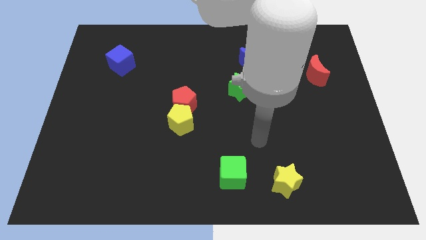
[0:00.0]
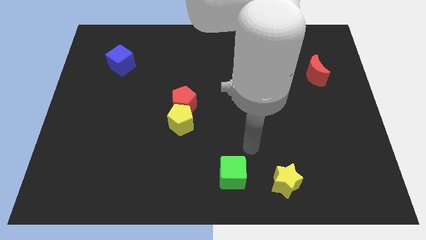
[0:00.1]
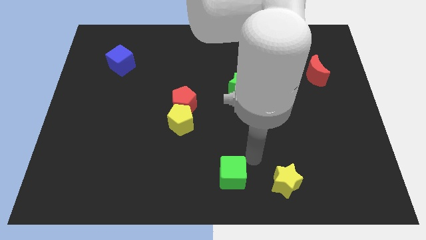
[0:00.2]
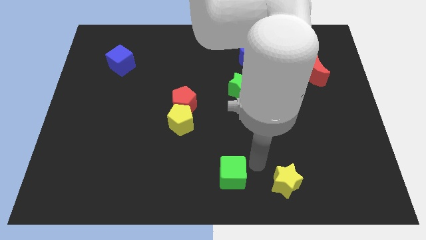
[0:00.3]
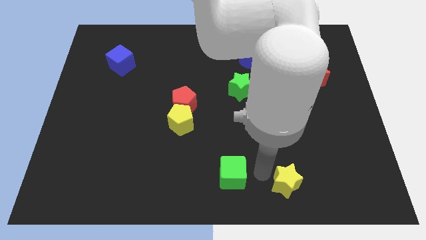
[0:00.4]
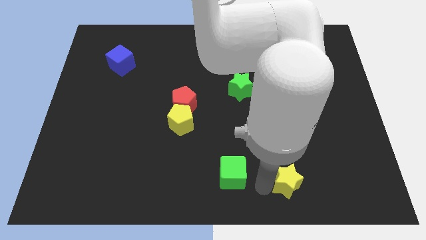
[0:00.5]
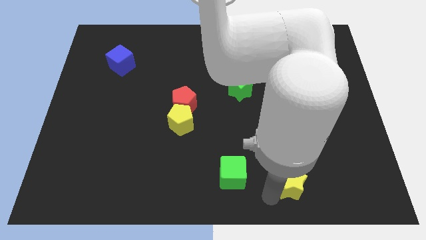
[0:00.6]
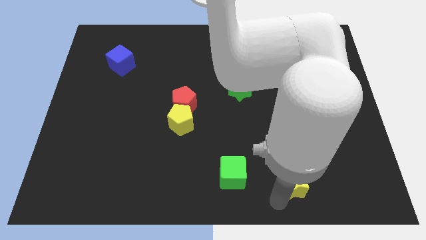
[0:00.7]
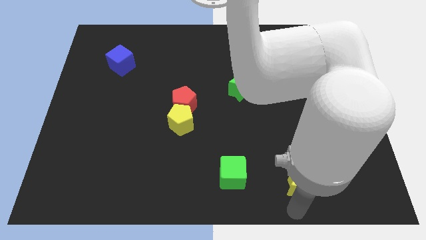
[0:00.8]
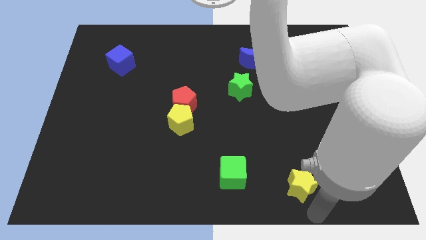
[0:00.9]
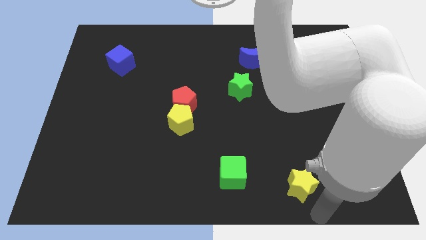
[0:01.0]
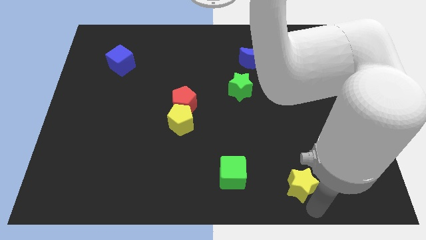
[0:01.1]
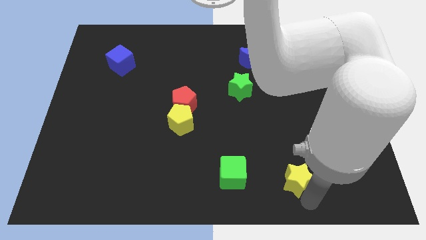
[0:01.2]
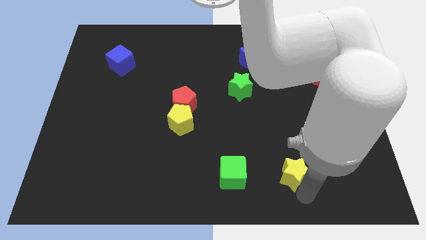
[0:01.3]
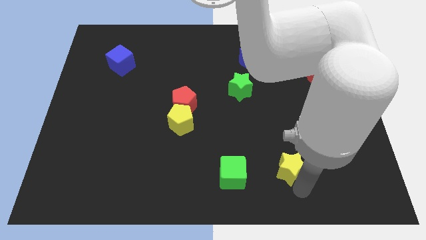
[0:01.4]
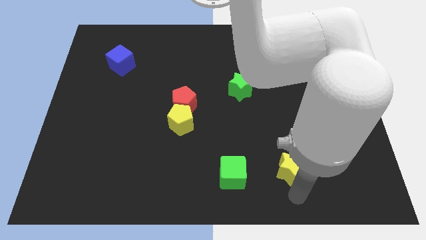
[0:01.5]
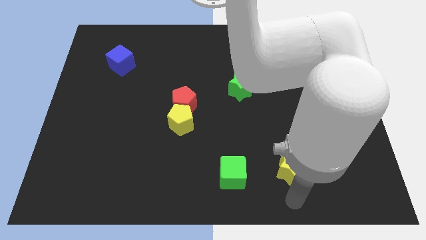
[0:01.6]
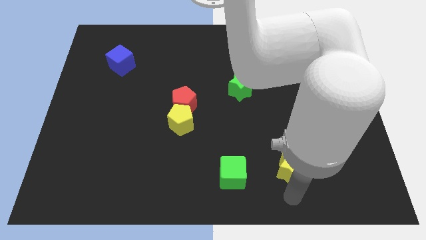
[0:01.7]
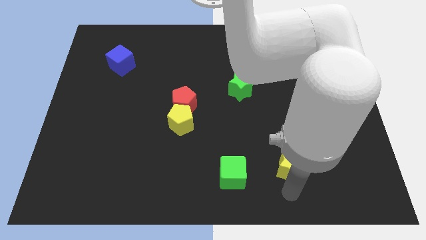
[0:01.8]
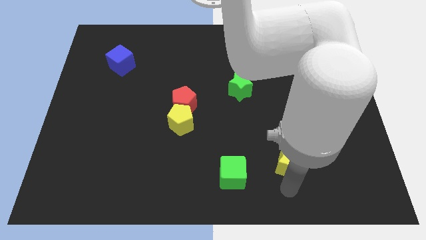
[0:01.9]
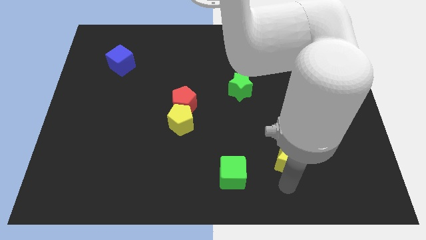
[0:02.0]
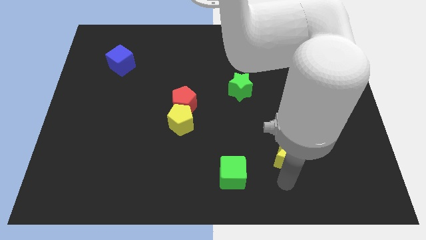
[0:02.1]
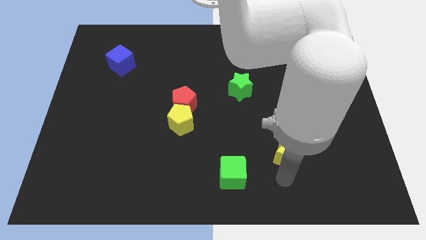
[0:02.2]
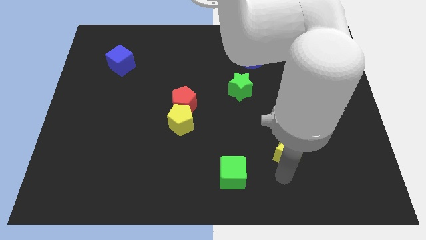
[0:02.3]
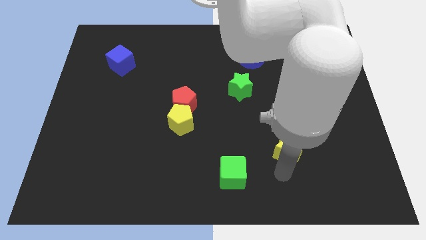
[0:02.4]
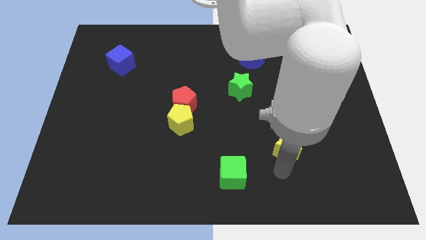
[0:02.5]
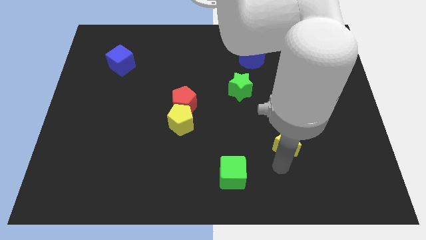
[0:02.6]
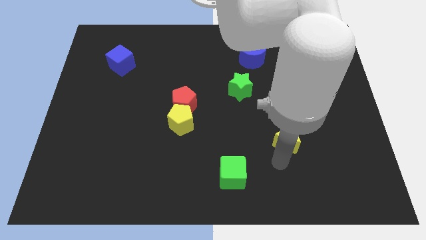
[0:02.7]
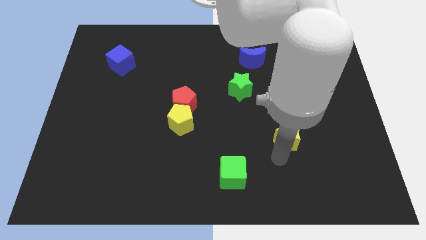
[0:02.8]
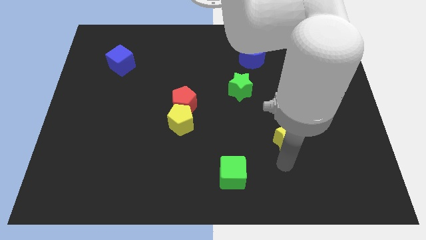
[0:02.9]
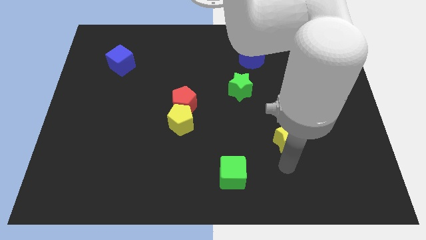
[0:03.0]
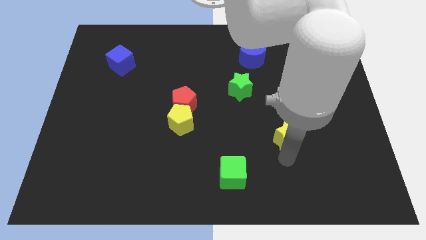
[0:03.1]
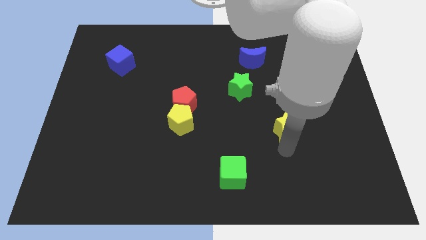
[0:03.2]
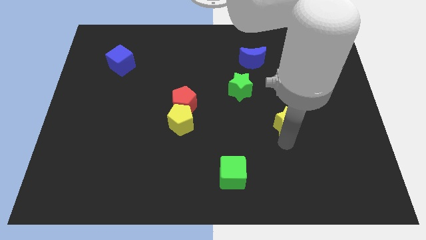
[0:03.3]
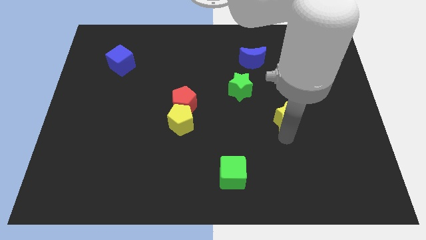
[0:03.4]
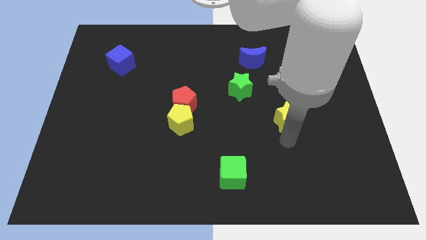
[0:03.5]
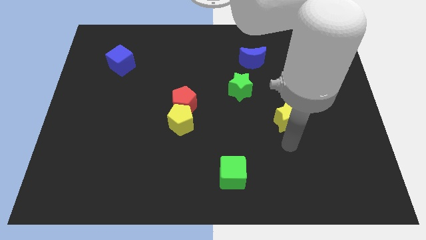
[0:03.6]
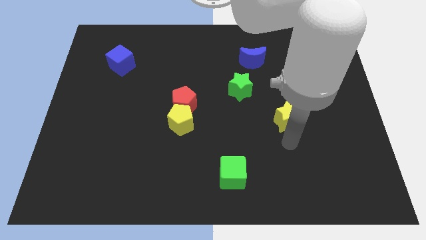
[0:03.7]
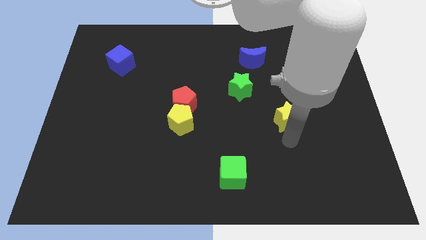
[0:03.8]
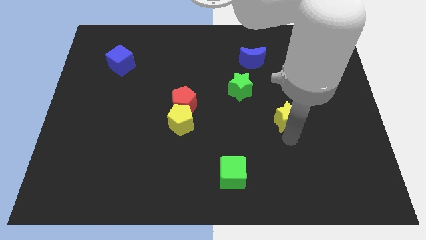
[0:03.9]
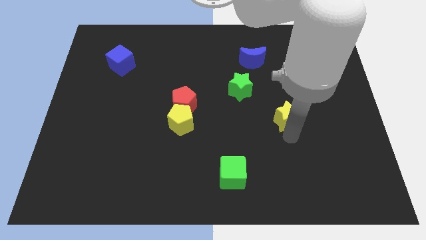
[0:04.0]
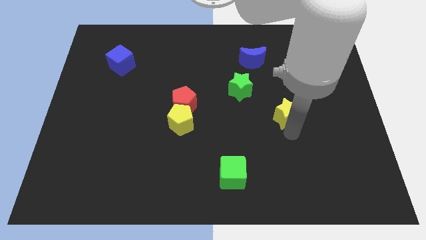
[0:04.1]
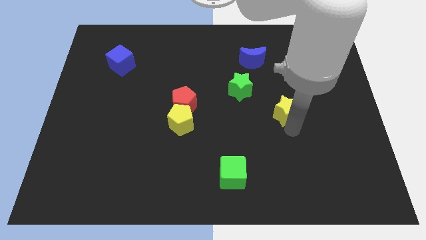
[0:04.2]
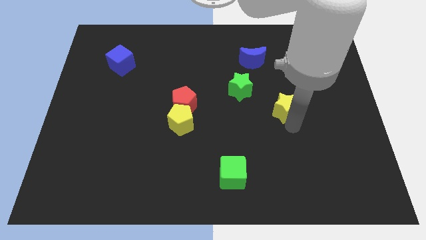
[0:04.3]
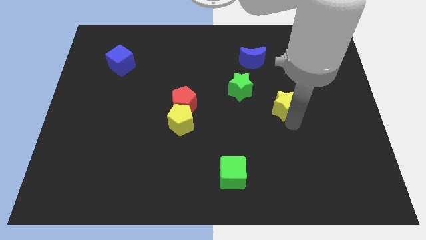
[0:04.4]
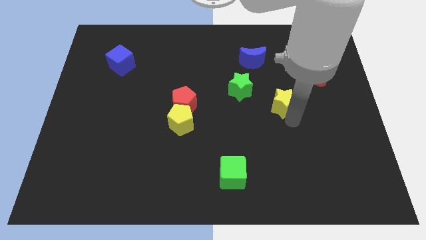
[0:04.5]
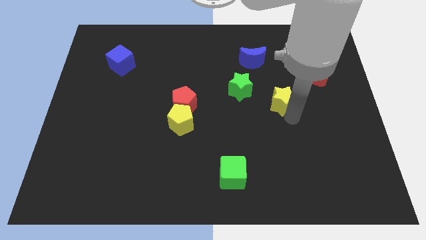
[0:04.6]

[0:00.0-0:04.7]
push the yellow star up

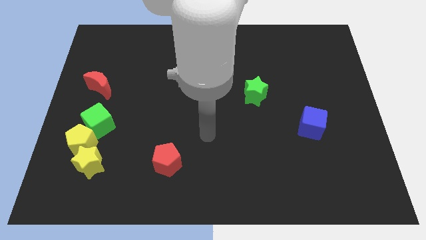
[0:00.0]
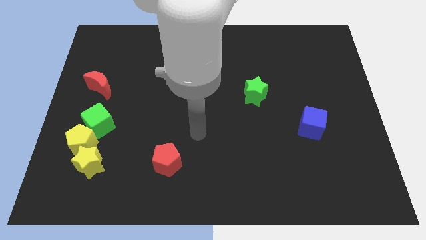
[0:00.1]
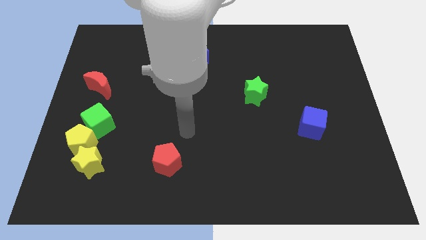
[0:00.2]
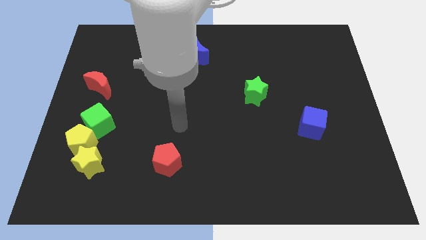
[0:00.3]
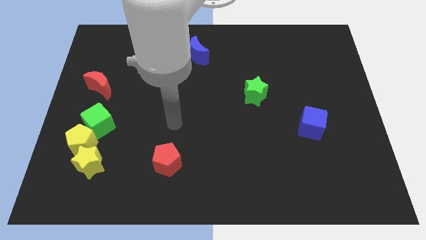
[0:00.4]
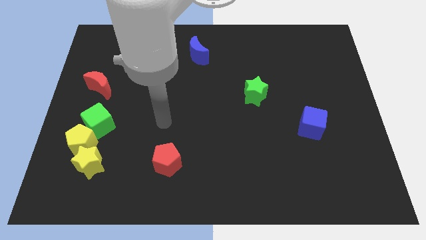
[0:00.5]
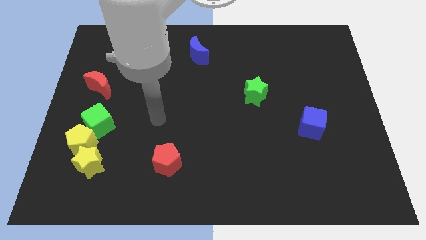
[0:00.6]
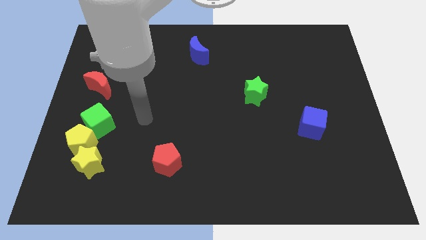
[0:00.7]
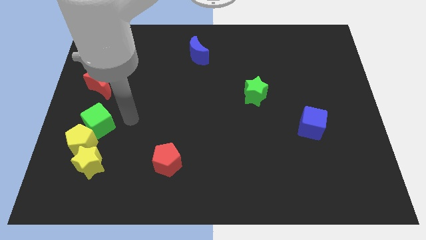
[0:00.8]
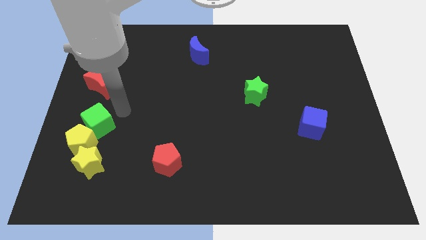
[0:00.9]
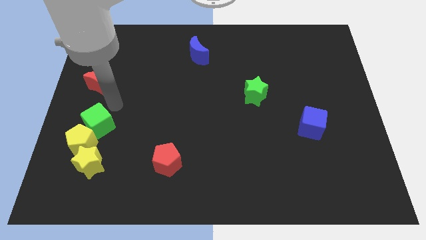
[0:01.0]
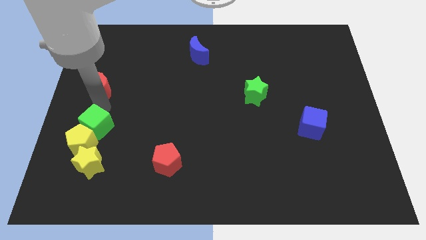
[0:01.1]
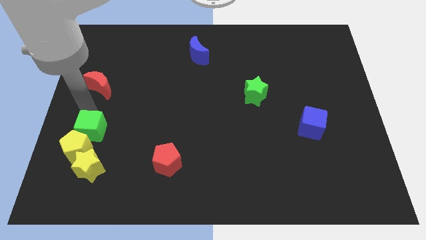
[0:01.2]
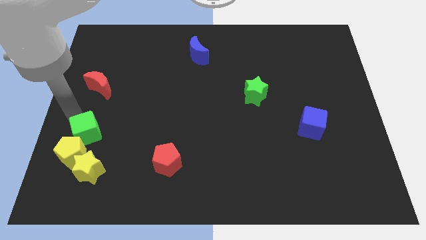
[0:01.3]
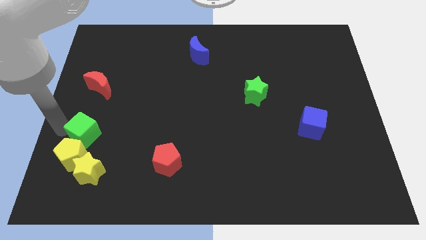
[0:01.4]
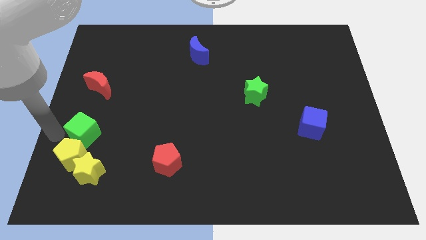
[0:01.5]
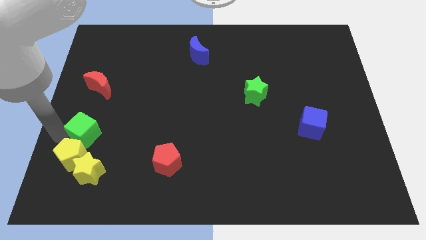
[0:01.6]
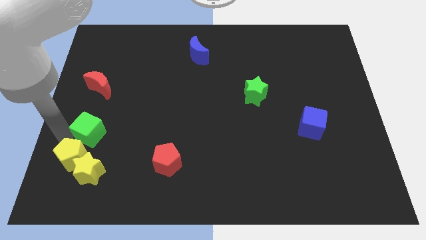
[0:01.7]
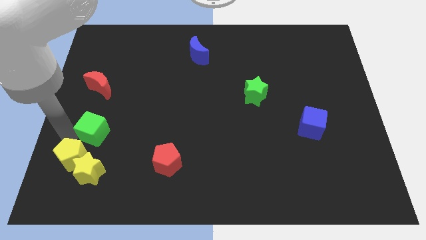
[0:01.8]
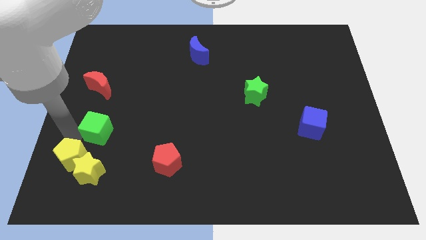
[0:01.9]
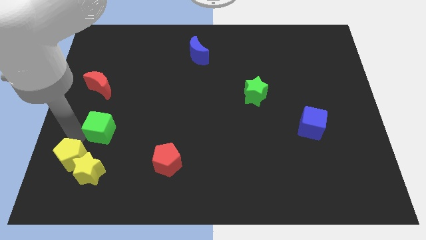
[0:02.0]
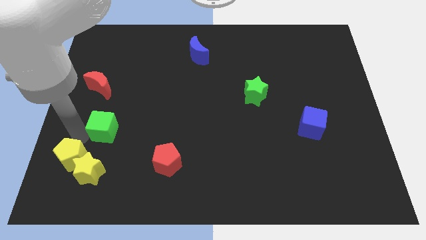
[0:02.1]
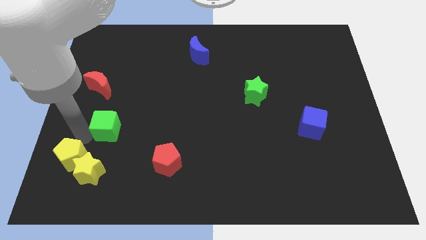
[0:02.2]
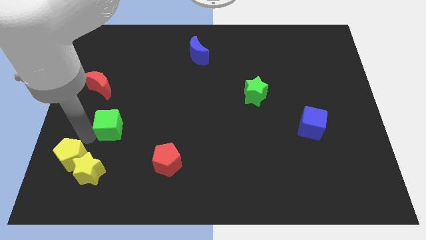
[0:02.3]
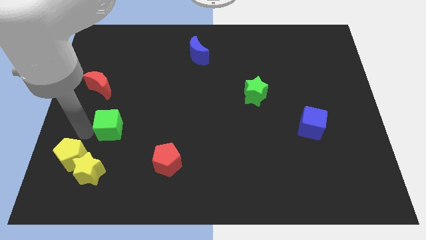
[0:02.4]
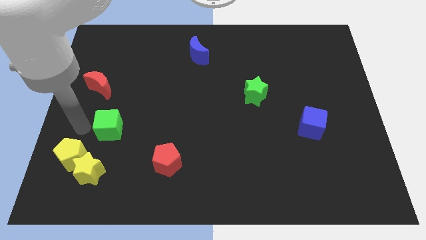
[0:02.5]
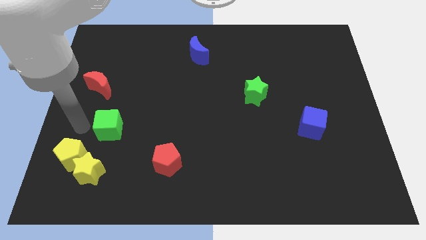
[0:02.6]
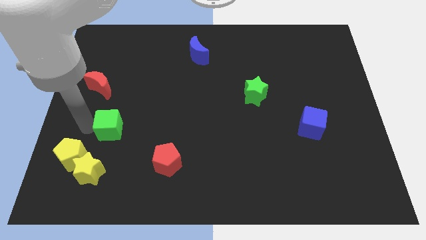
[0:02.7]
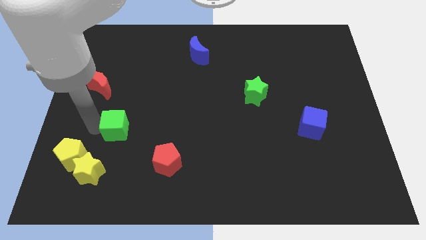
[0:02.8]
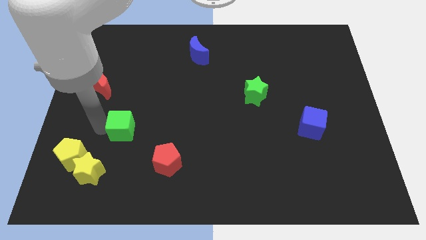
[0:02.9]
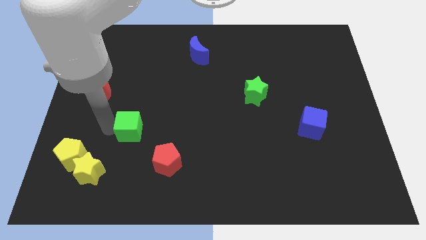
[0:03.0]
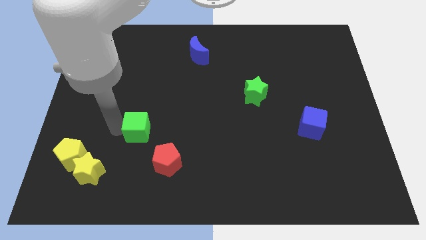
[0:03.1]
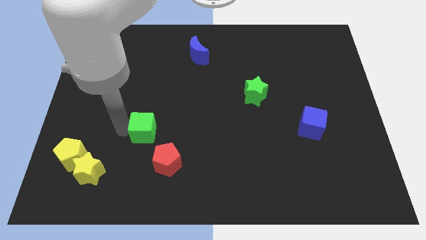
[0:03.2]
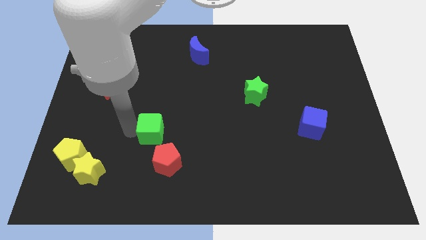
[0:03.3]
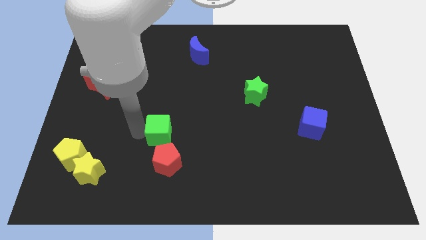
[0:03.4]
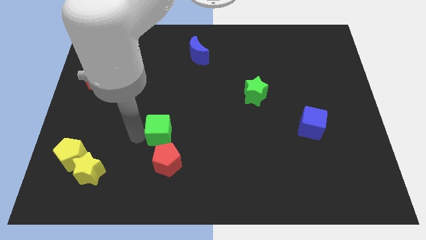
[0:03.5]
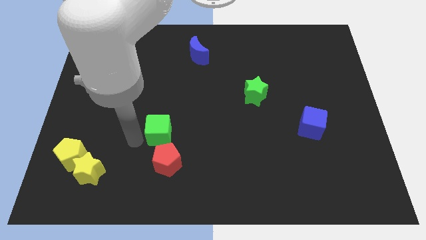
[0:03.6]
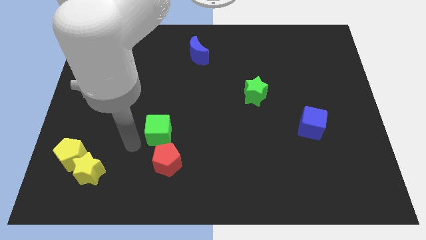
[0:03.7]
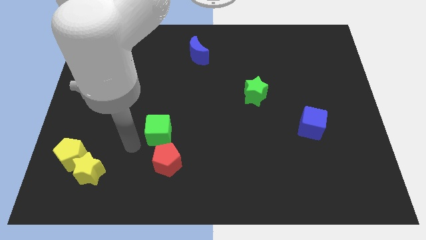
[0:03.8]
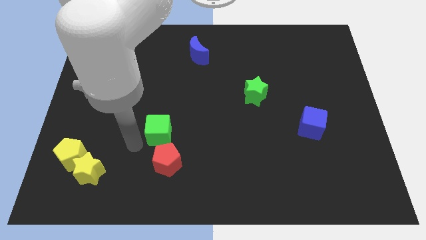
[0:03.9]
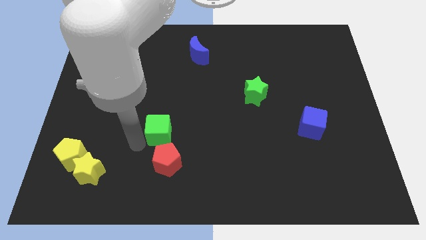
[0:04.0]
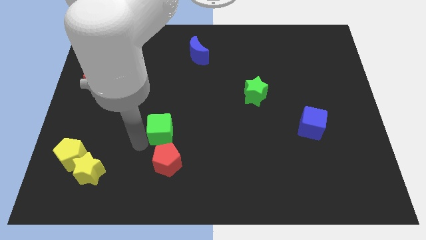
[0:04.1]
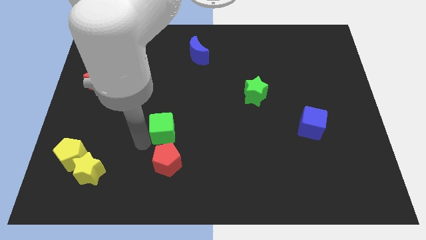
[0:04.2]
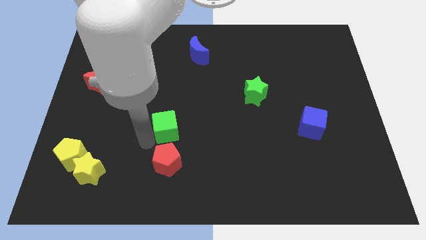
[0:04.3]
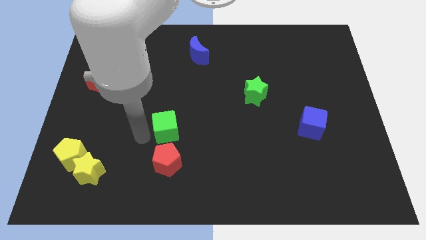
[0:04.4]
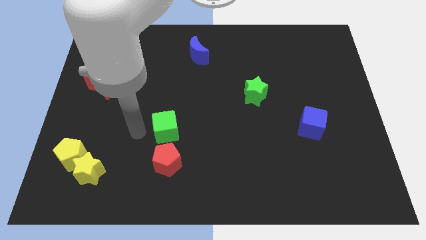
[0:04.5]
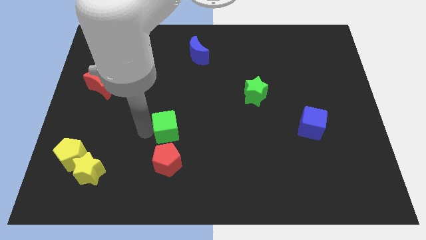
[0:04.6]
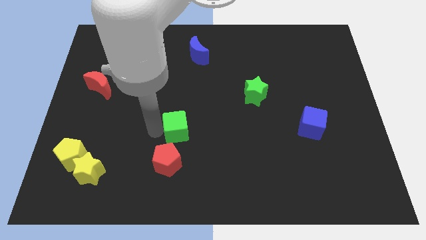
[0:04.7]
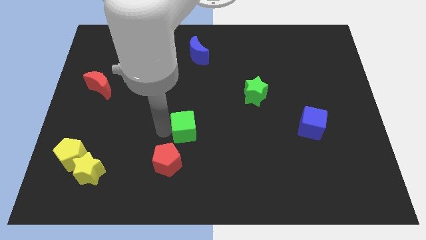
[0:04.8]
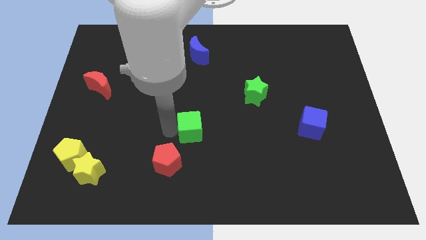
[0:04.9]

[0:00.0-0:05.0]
move the green cube right
